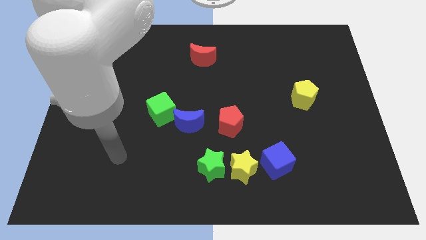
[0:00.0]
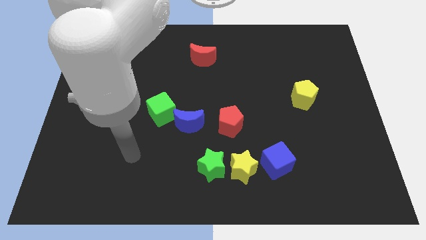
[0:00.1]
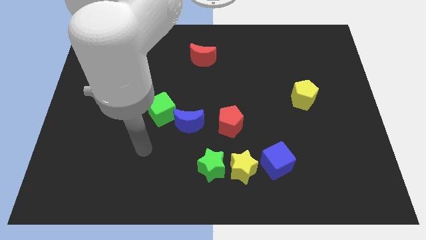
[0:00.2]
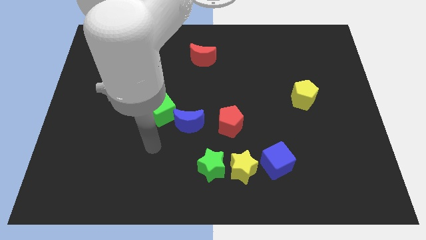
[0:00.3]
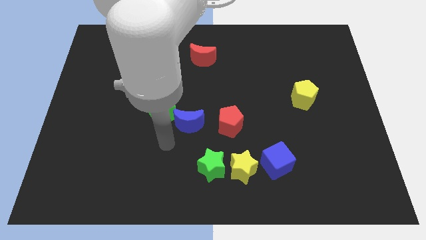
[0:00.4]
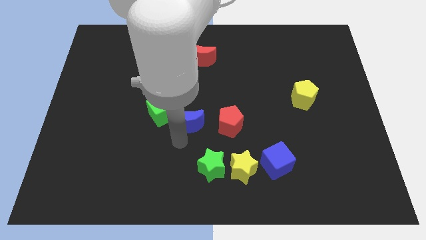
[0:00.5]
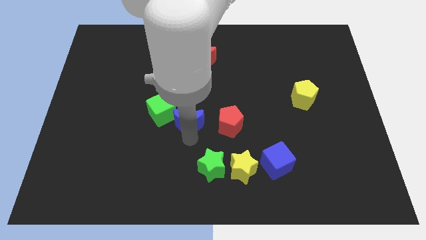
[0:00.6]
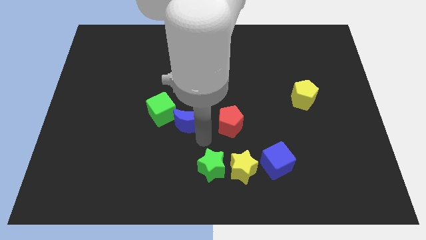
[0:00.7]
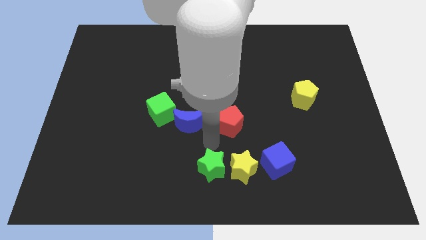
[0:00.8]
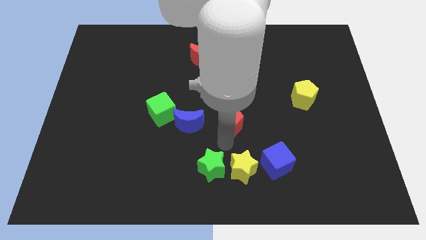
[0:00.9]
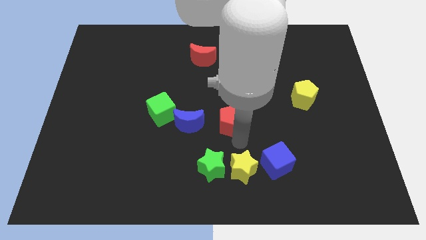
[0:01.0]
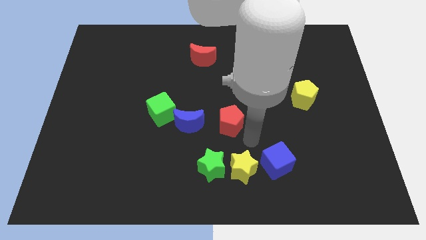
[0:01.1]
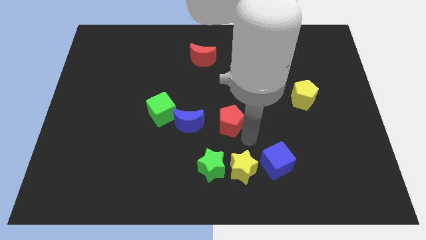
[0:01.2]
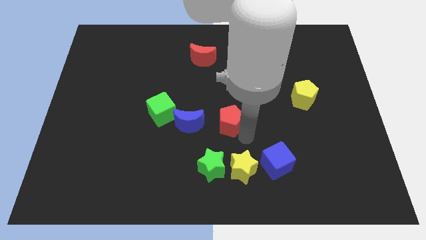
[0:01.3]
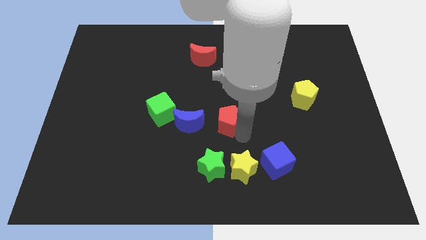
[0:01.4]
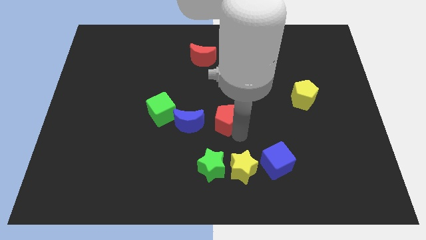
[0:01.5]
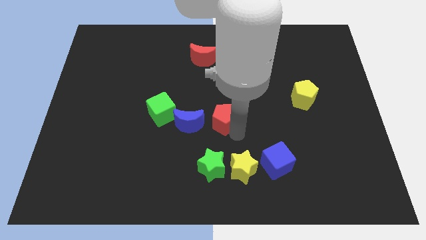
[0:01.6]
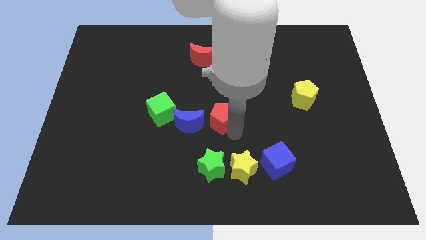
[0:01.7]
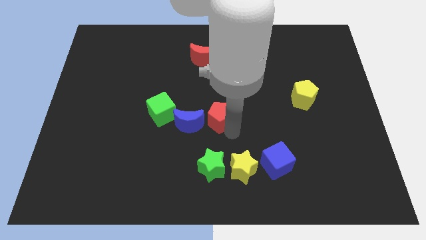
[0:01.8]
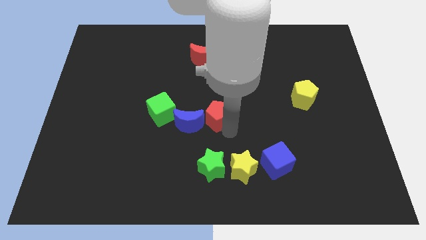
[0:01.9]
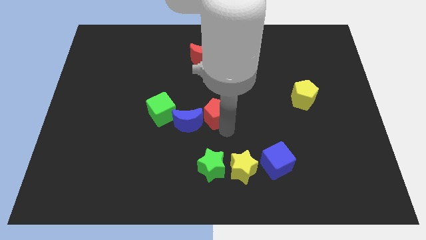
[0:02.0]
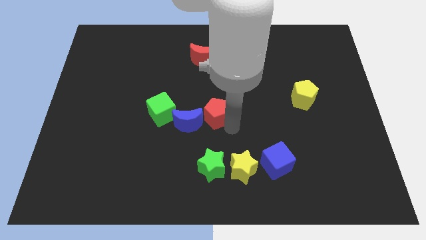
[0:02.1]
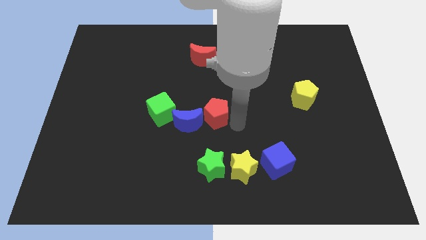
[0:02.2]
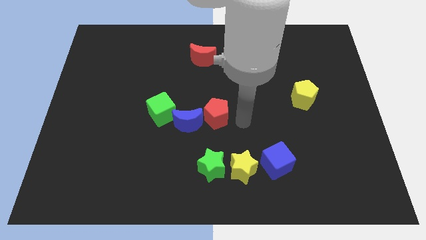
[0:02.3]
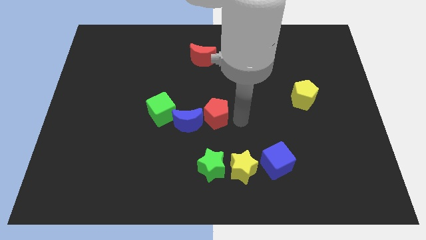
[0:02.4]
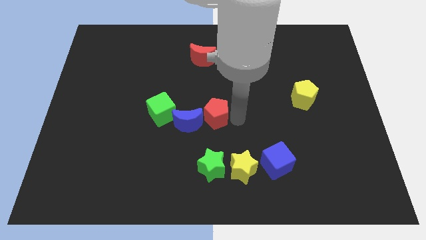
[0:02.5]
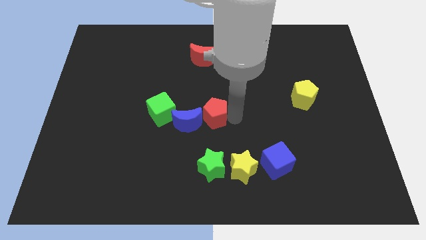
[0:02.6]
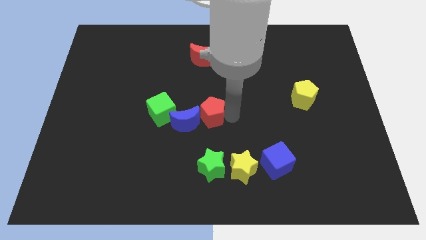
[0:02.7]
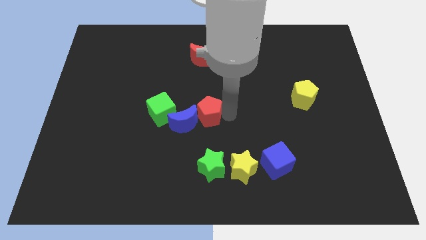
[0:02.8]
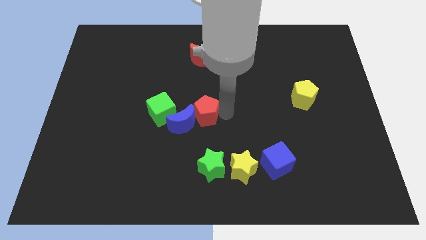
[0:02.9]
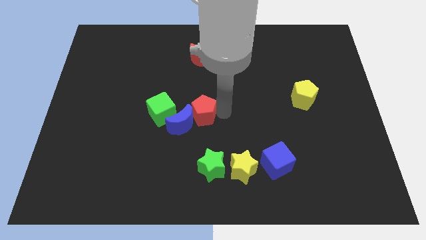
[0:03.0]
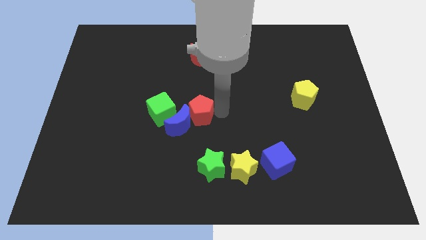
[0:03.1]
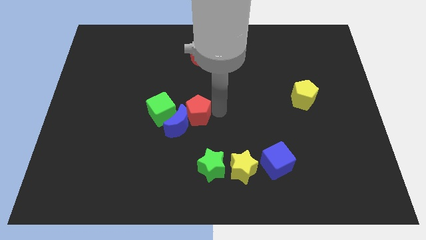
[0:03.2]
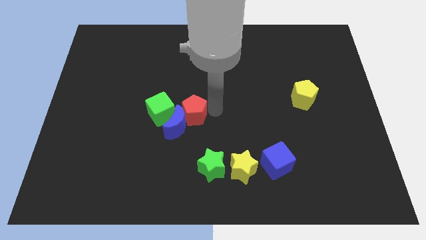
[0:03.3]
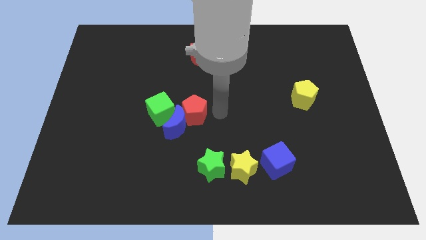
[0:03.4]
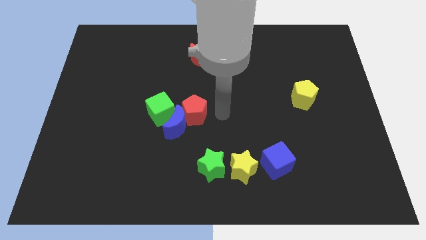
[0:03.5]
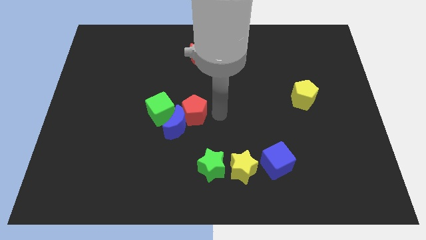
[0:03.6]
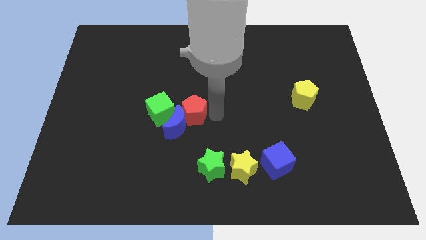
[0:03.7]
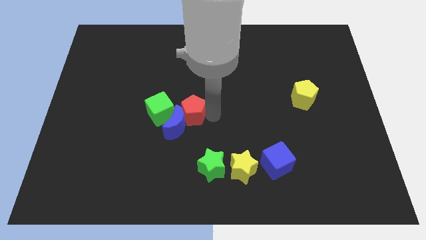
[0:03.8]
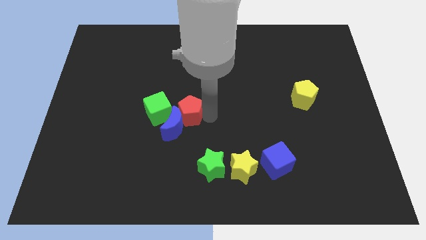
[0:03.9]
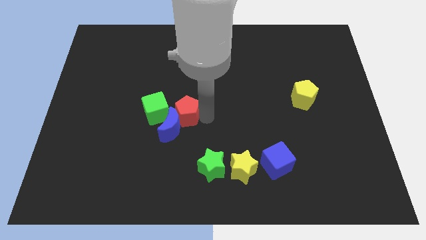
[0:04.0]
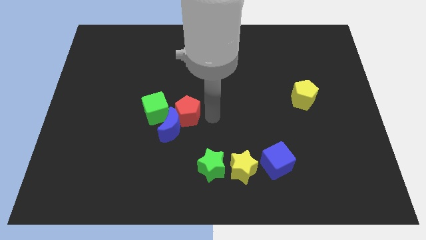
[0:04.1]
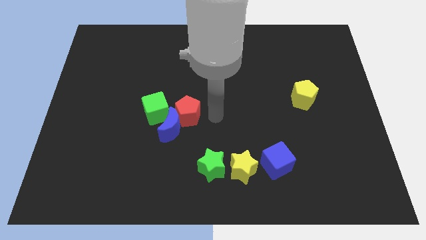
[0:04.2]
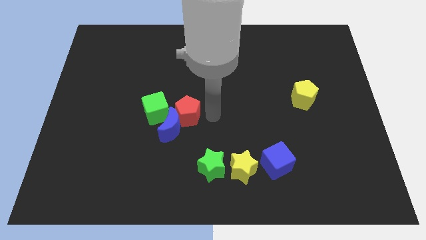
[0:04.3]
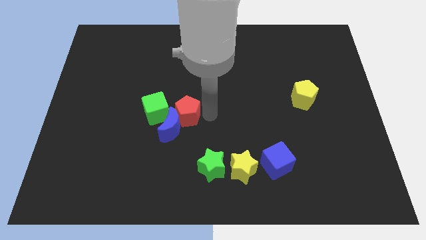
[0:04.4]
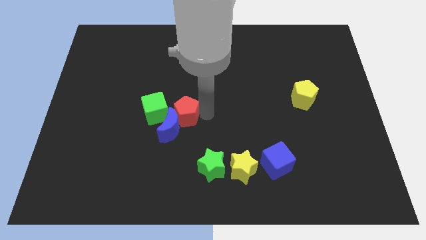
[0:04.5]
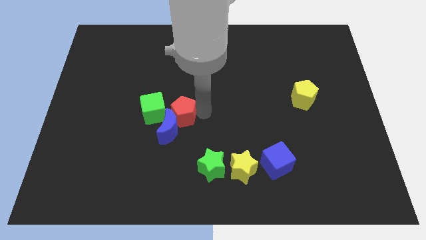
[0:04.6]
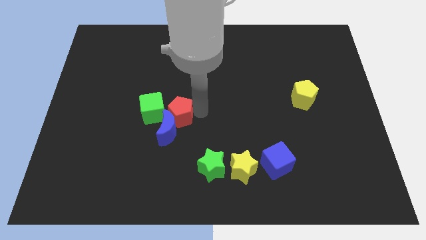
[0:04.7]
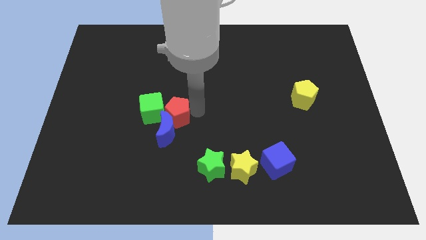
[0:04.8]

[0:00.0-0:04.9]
push the red pentagon towards the green cube

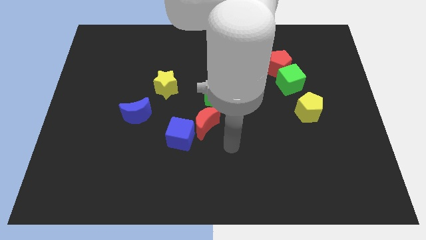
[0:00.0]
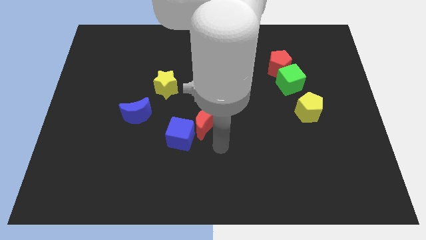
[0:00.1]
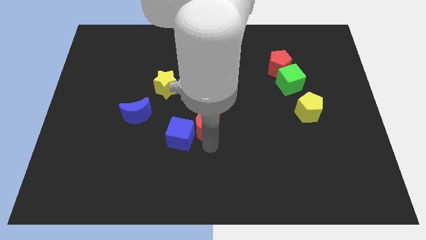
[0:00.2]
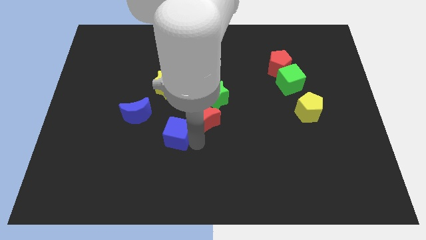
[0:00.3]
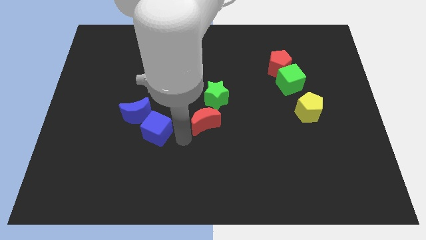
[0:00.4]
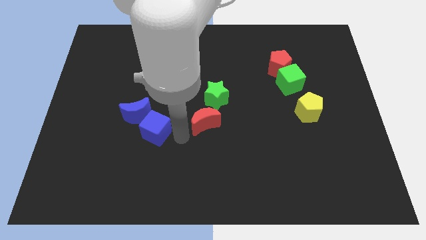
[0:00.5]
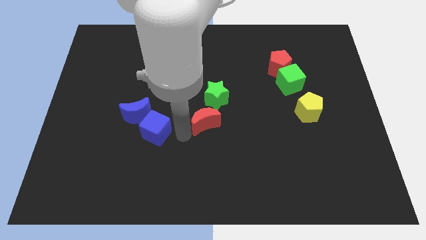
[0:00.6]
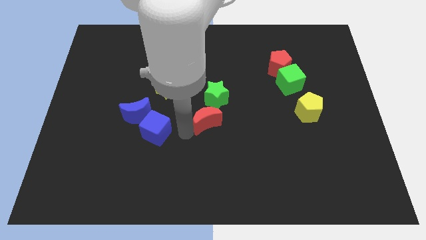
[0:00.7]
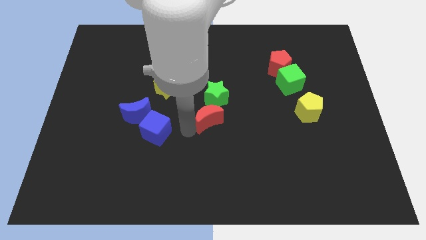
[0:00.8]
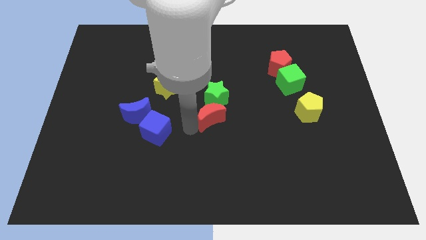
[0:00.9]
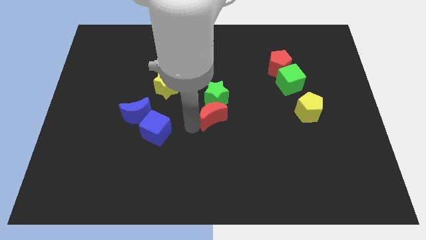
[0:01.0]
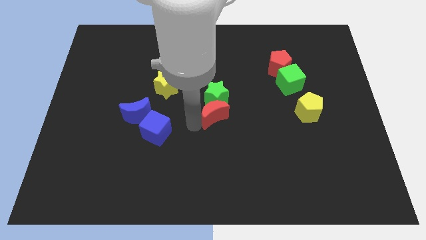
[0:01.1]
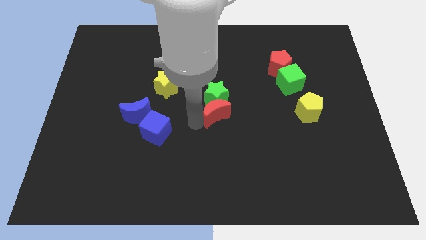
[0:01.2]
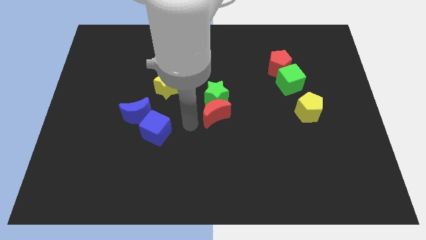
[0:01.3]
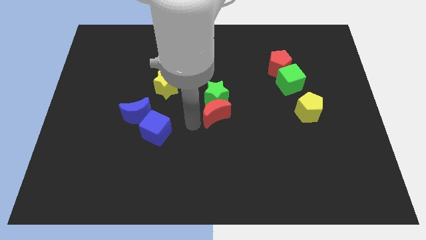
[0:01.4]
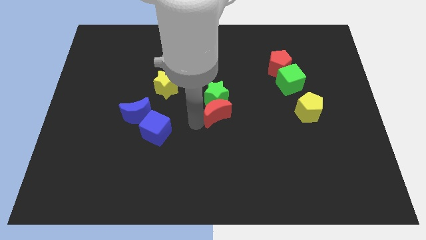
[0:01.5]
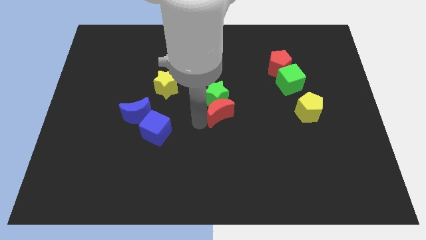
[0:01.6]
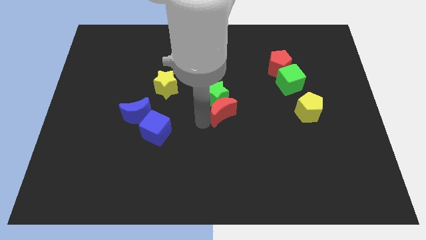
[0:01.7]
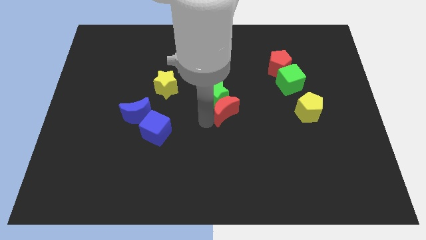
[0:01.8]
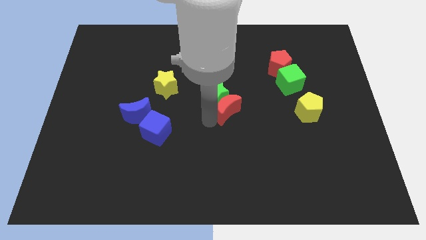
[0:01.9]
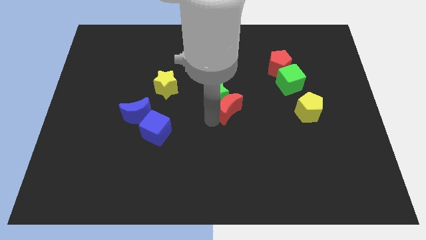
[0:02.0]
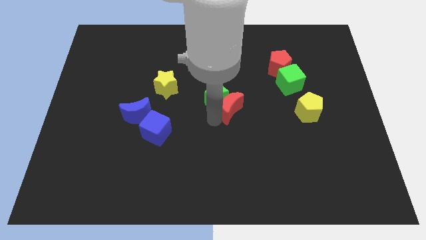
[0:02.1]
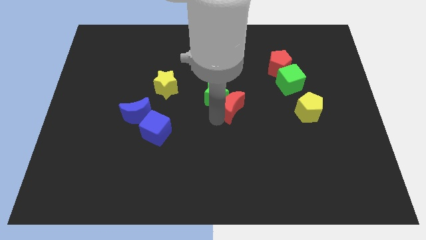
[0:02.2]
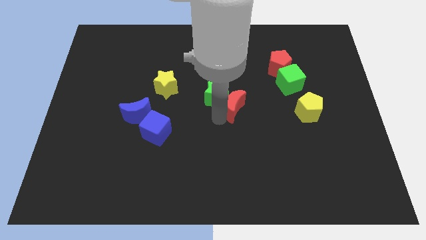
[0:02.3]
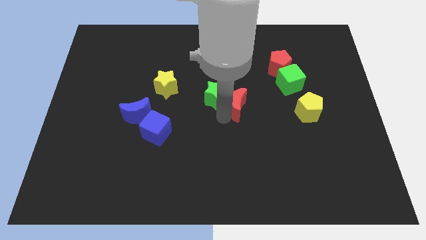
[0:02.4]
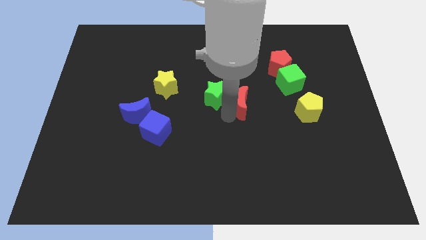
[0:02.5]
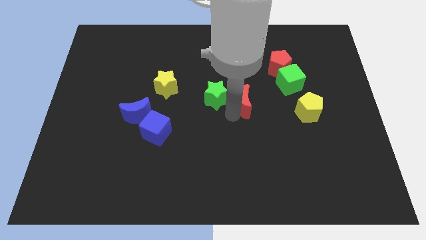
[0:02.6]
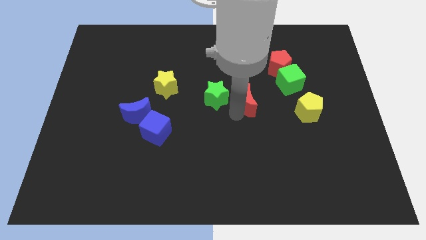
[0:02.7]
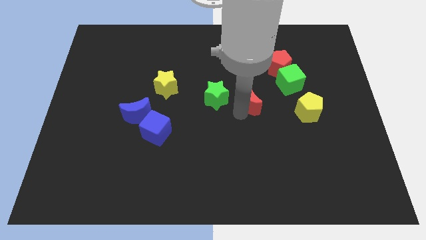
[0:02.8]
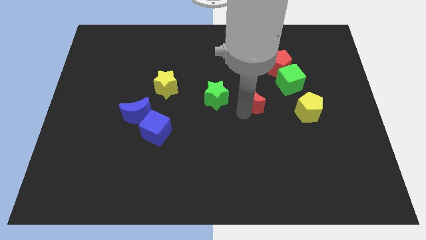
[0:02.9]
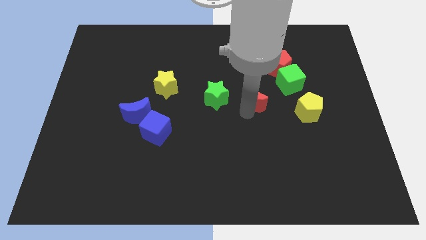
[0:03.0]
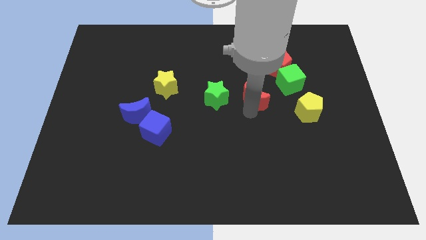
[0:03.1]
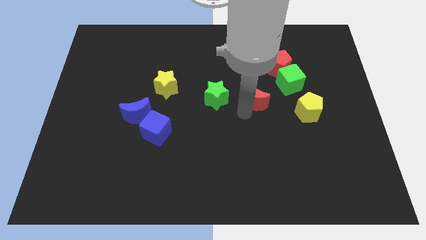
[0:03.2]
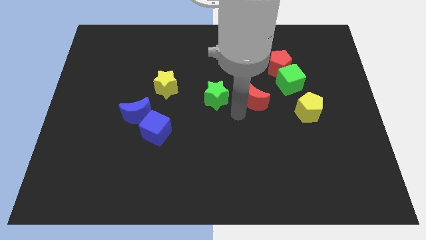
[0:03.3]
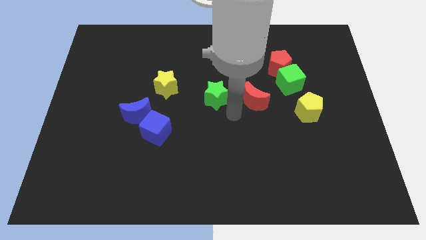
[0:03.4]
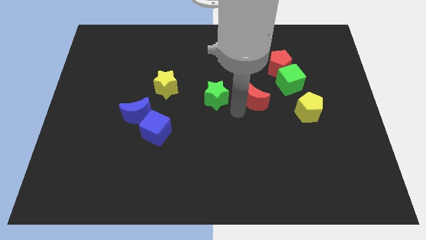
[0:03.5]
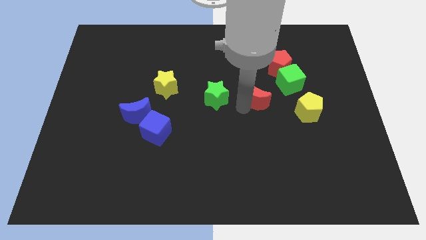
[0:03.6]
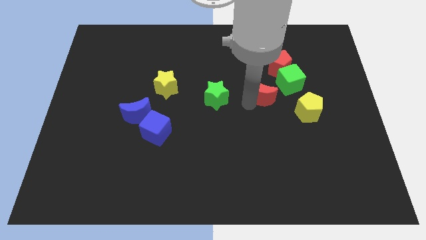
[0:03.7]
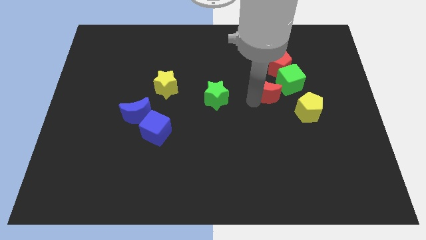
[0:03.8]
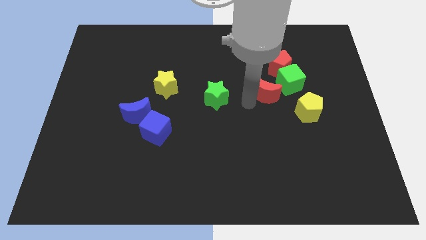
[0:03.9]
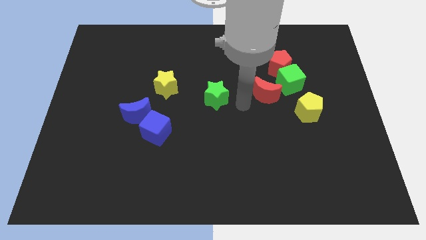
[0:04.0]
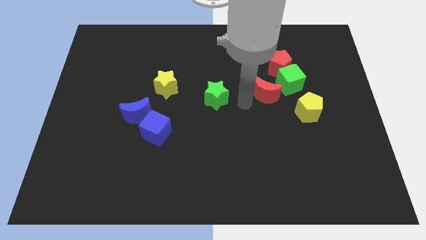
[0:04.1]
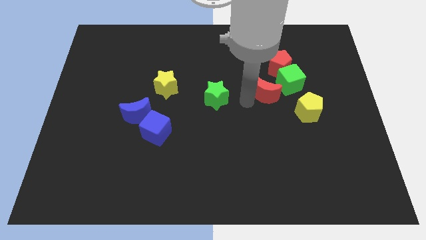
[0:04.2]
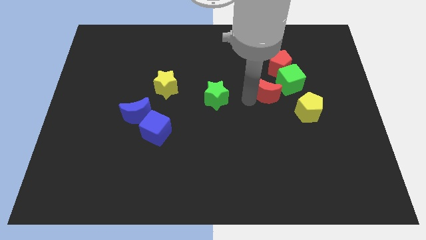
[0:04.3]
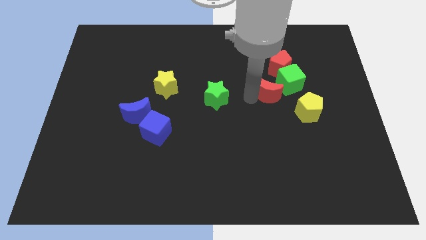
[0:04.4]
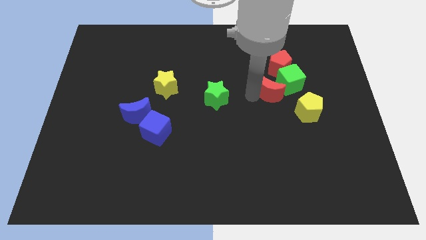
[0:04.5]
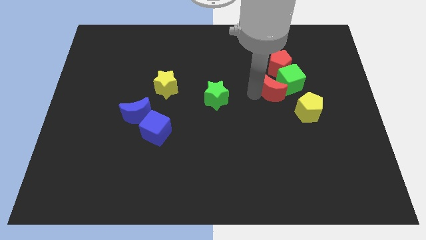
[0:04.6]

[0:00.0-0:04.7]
move the red moon next to the green cube
